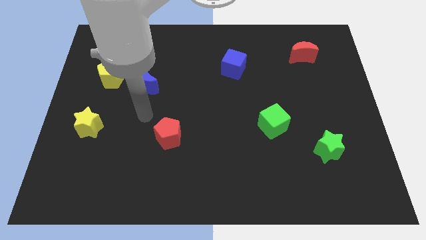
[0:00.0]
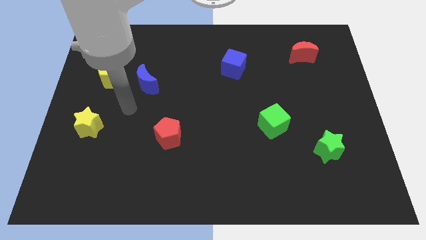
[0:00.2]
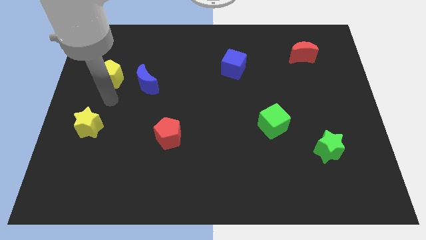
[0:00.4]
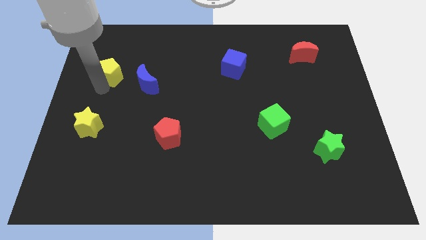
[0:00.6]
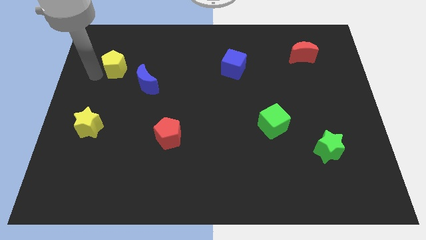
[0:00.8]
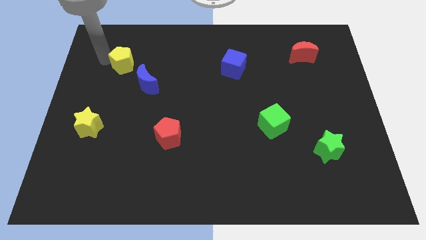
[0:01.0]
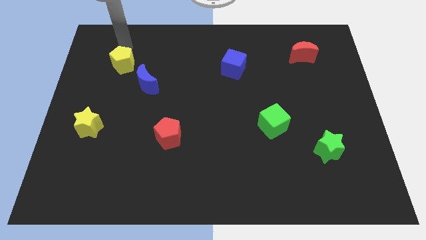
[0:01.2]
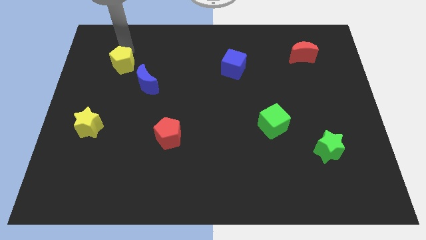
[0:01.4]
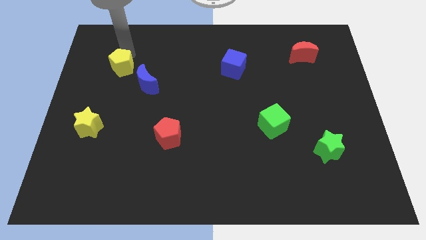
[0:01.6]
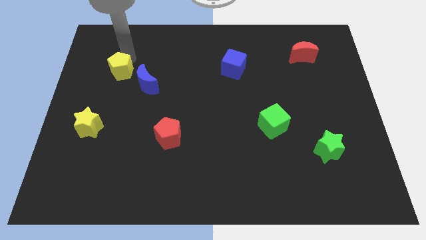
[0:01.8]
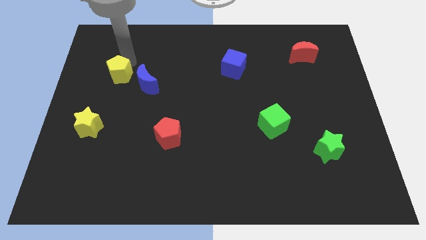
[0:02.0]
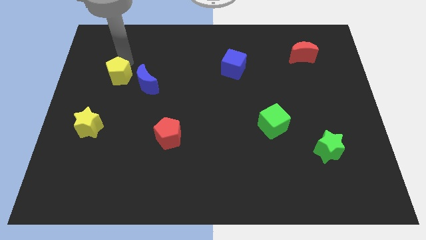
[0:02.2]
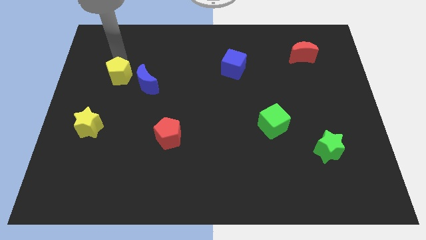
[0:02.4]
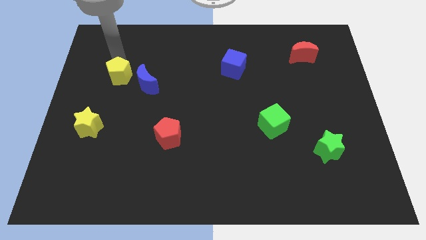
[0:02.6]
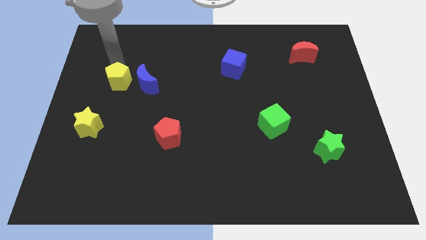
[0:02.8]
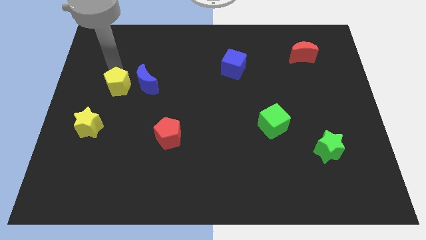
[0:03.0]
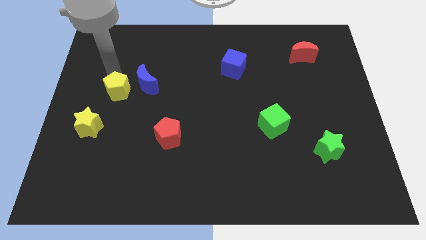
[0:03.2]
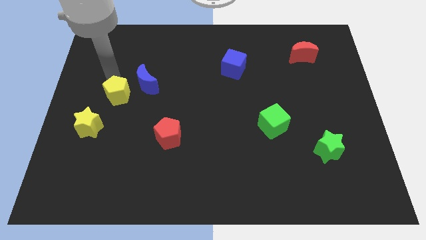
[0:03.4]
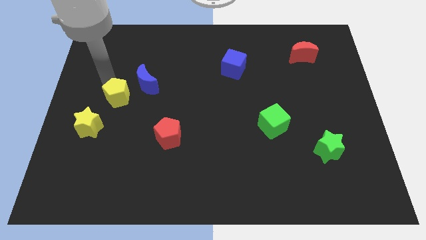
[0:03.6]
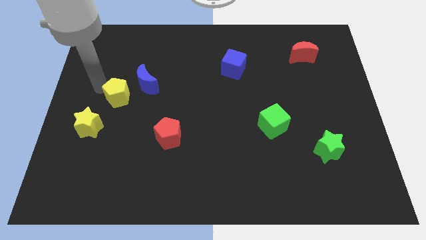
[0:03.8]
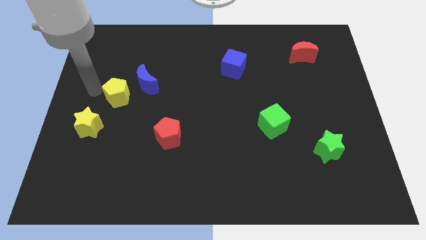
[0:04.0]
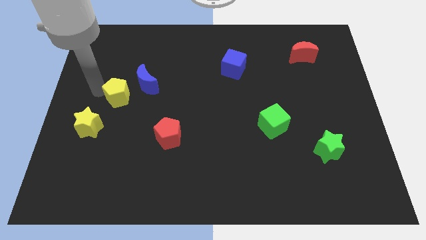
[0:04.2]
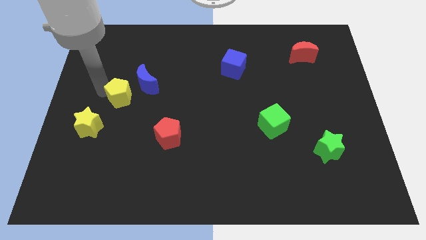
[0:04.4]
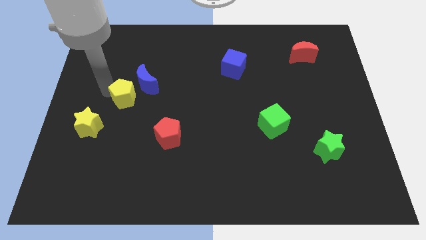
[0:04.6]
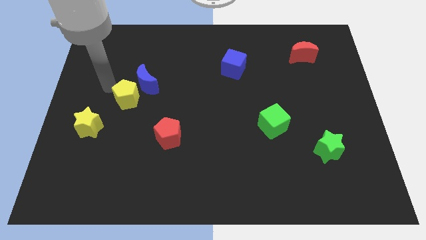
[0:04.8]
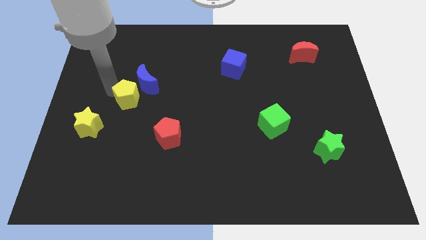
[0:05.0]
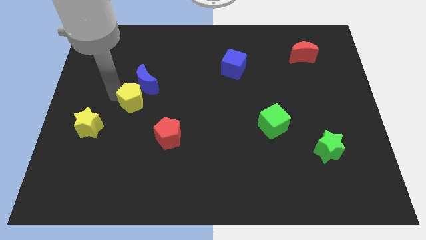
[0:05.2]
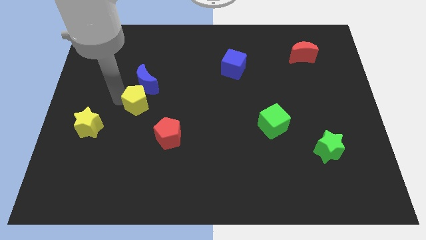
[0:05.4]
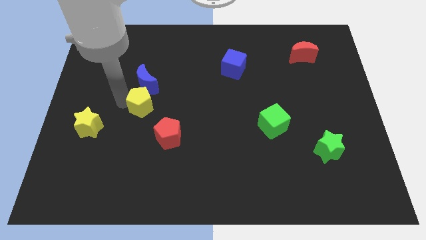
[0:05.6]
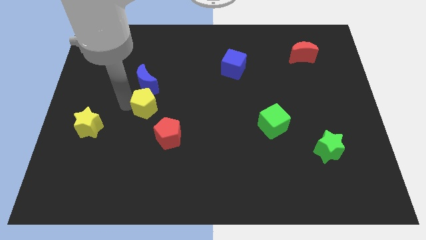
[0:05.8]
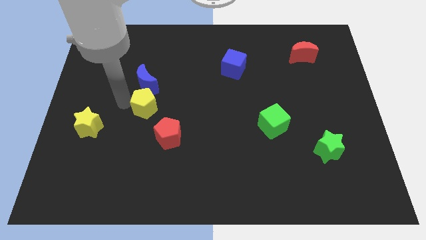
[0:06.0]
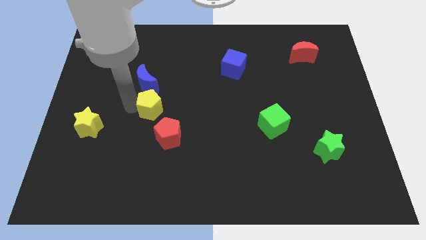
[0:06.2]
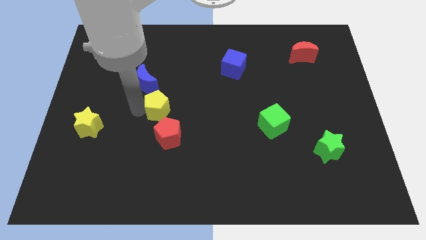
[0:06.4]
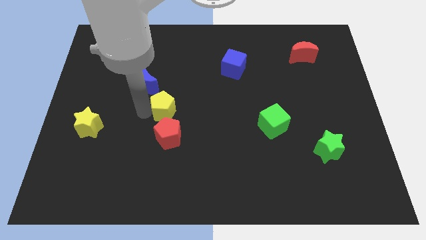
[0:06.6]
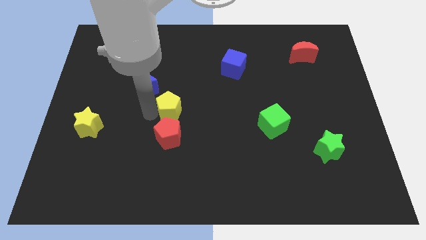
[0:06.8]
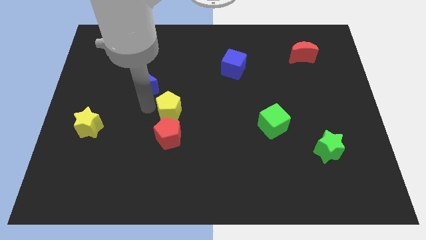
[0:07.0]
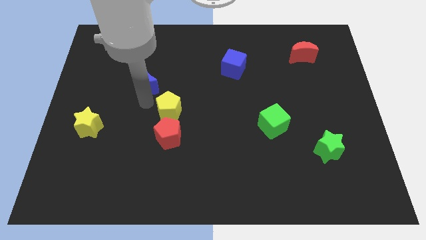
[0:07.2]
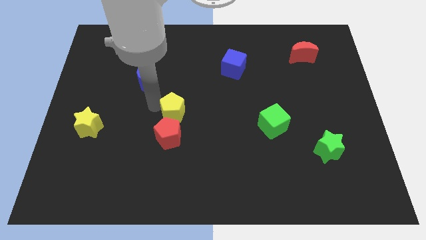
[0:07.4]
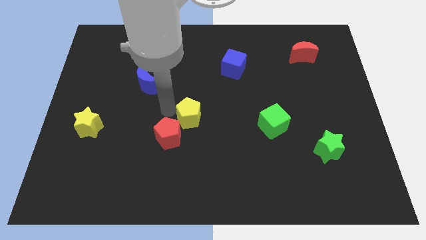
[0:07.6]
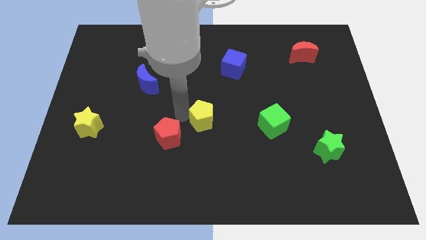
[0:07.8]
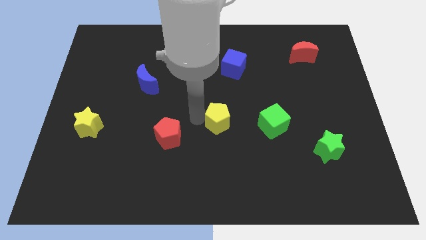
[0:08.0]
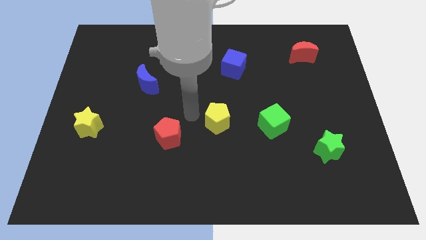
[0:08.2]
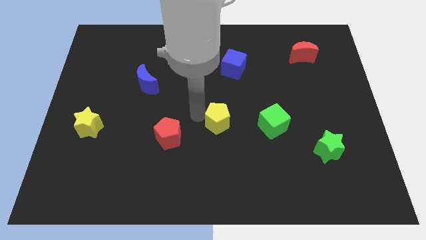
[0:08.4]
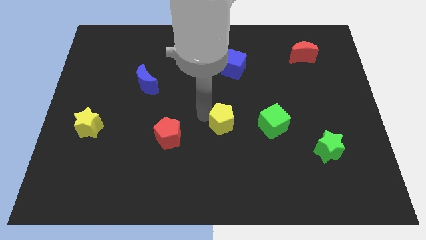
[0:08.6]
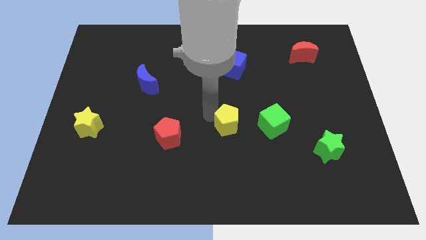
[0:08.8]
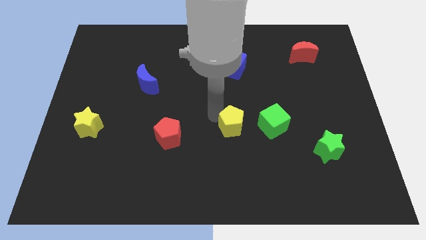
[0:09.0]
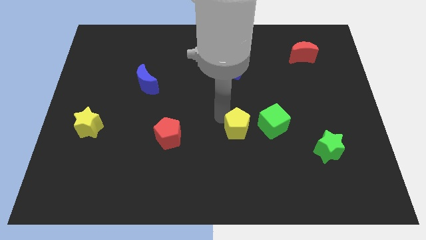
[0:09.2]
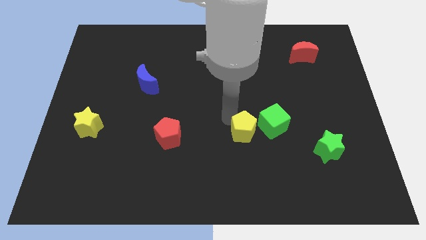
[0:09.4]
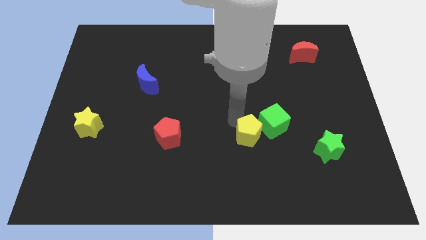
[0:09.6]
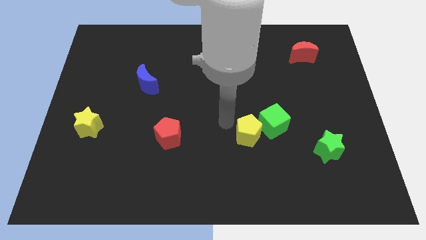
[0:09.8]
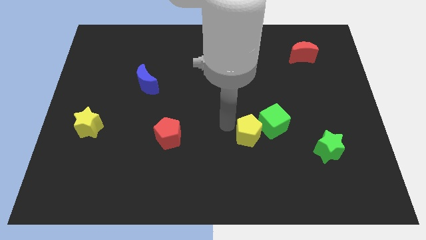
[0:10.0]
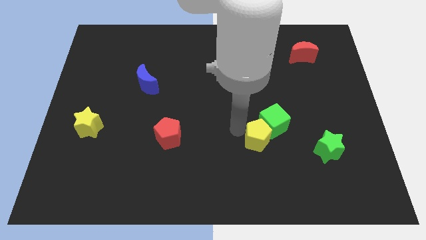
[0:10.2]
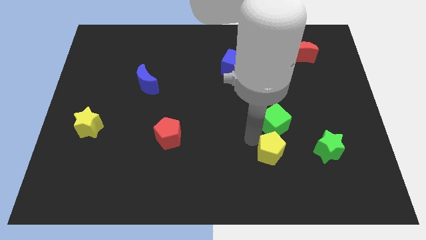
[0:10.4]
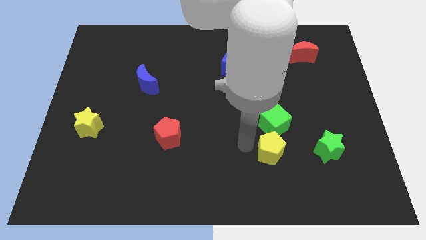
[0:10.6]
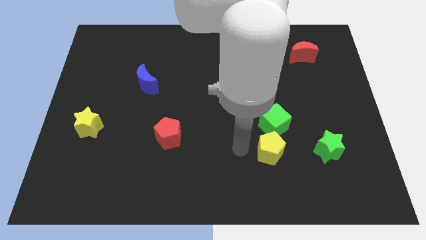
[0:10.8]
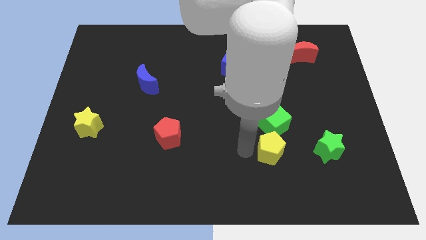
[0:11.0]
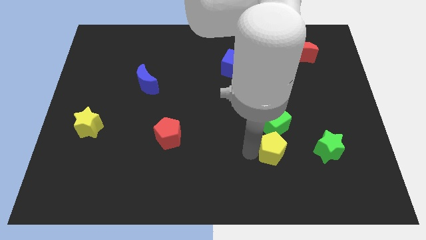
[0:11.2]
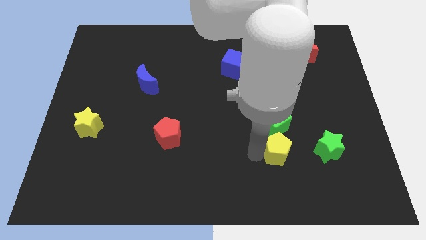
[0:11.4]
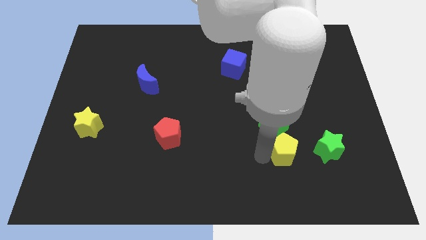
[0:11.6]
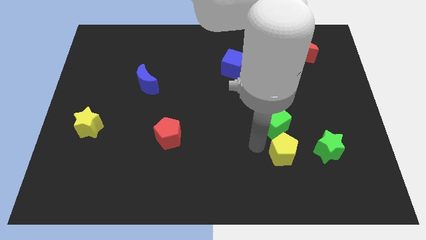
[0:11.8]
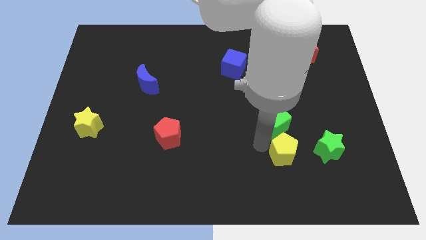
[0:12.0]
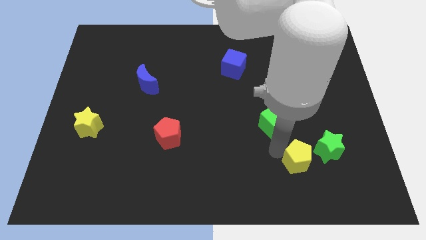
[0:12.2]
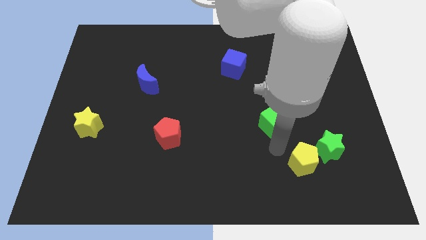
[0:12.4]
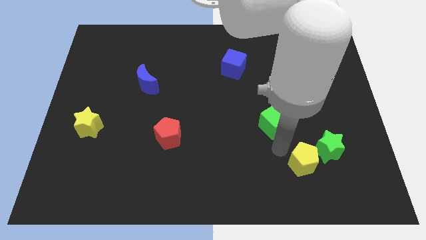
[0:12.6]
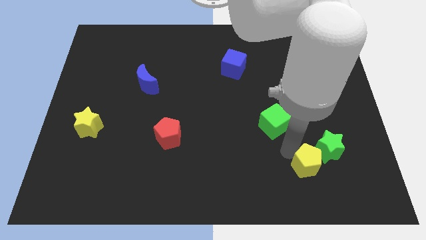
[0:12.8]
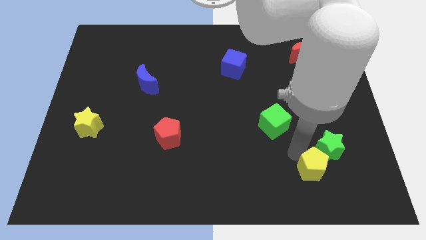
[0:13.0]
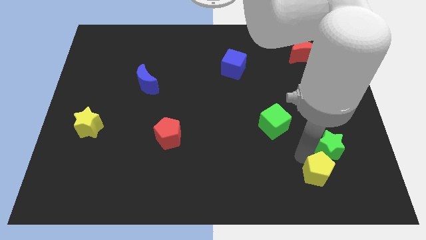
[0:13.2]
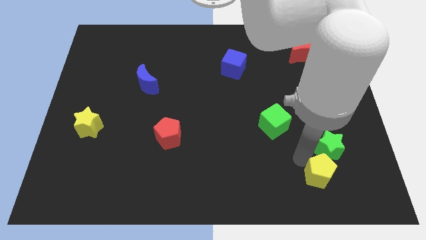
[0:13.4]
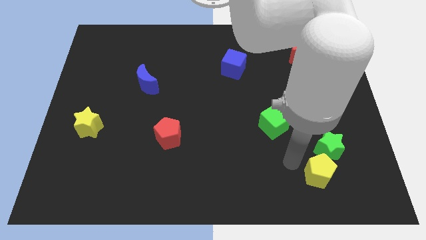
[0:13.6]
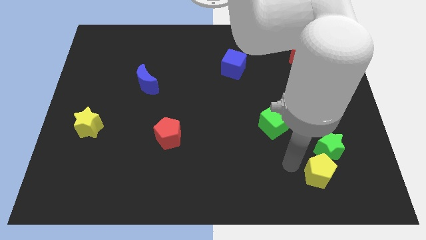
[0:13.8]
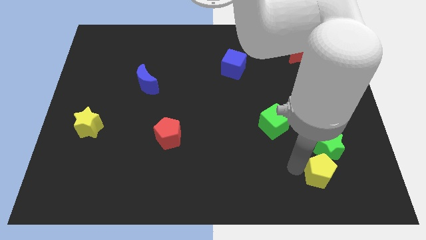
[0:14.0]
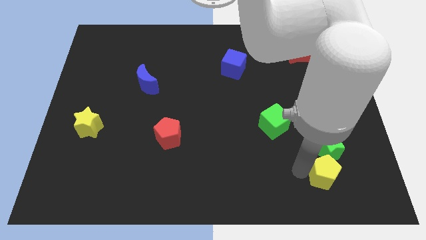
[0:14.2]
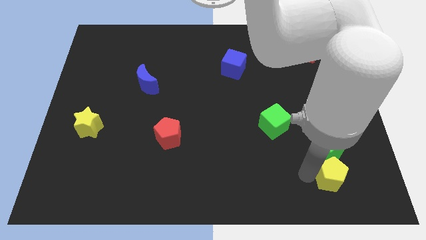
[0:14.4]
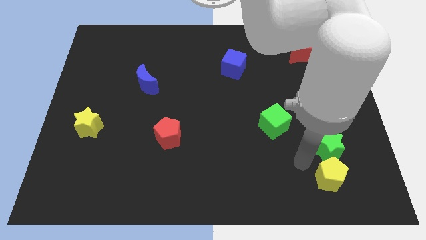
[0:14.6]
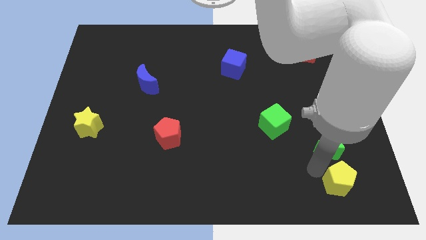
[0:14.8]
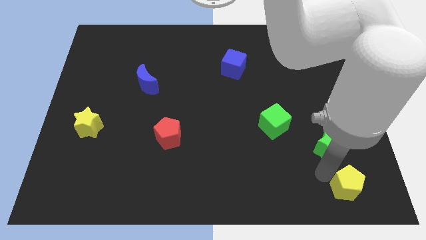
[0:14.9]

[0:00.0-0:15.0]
put the yellow pentagon to the lower right corner
